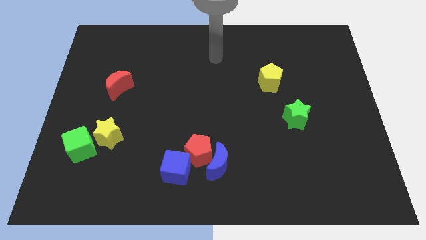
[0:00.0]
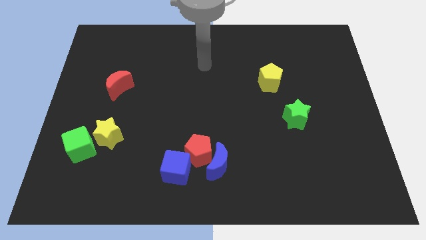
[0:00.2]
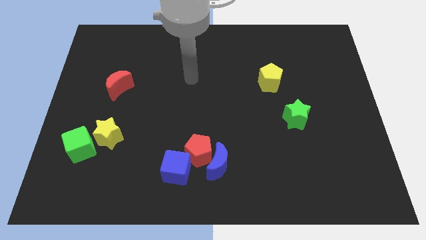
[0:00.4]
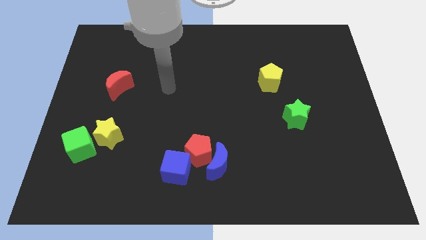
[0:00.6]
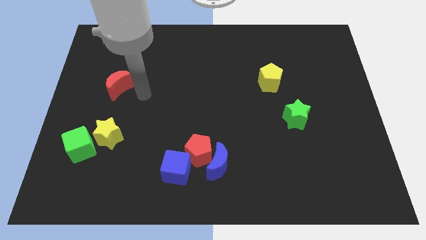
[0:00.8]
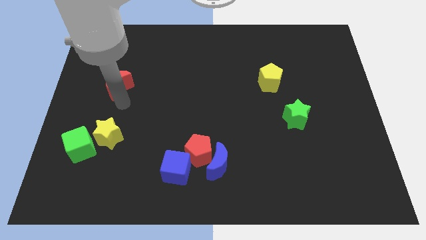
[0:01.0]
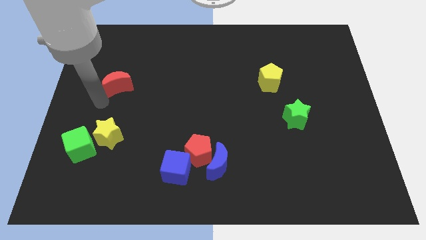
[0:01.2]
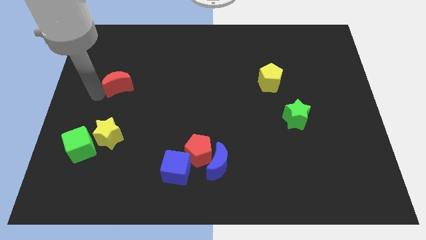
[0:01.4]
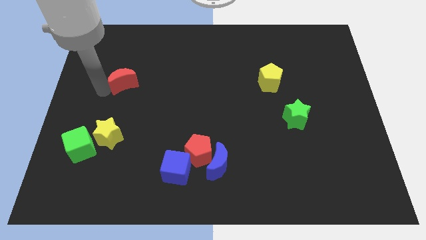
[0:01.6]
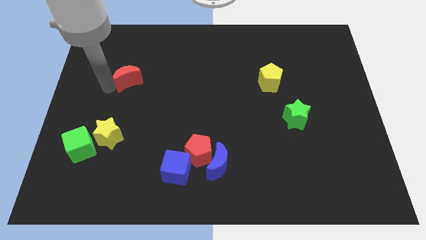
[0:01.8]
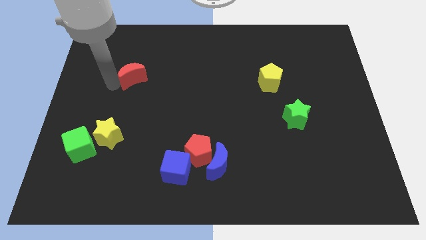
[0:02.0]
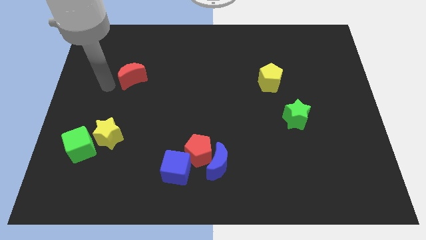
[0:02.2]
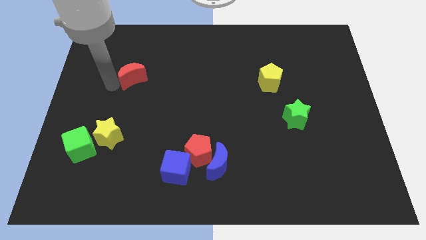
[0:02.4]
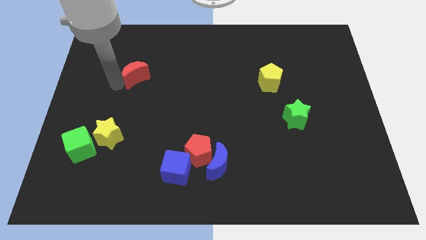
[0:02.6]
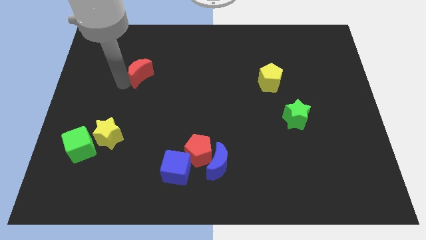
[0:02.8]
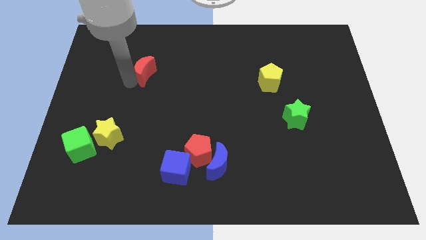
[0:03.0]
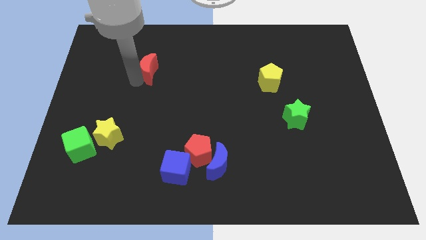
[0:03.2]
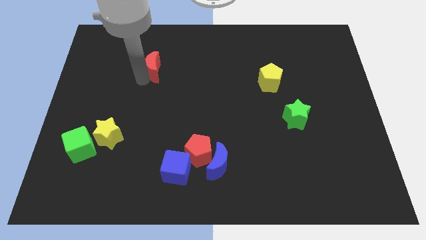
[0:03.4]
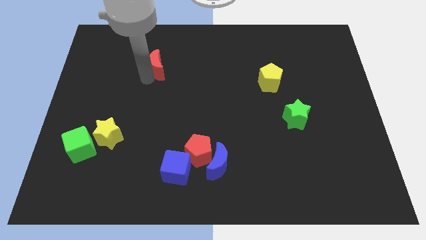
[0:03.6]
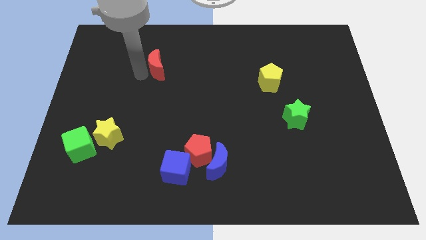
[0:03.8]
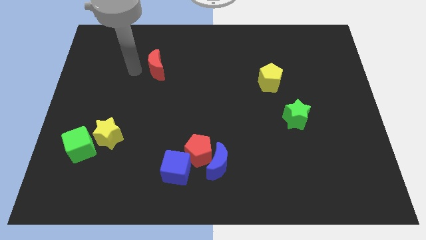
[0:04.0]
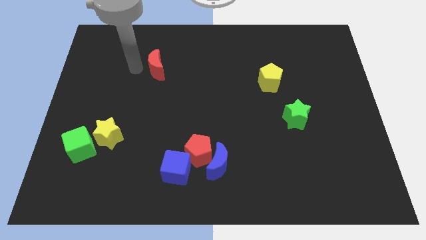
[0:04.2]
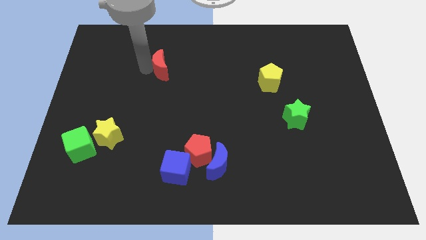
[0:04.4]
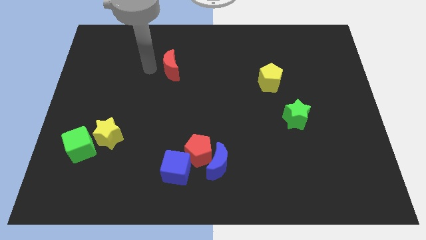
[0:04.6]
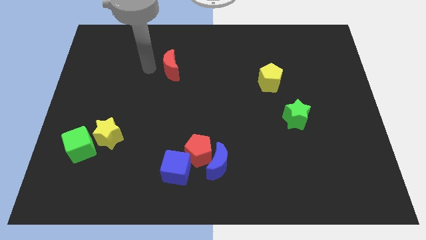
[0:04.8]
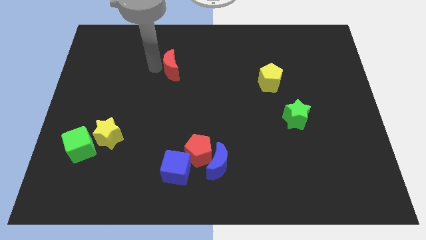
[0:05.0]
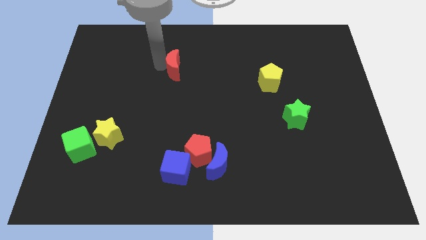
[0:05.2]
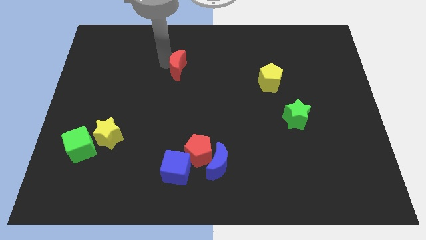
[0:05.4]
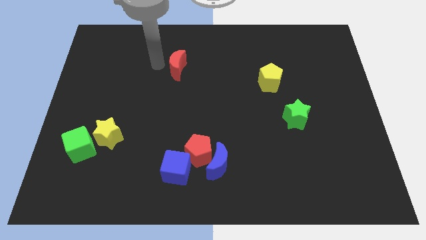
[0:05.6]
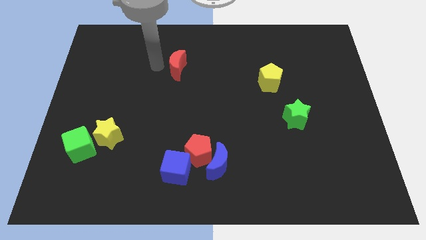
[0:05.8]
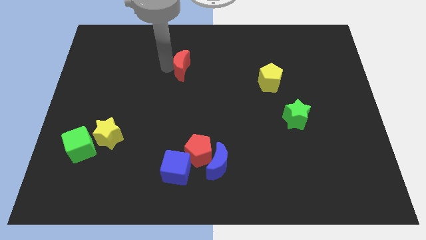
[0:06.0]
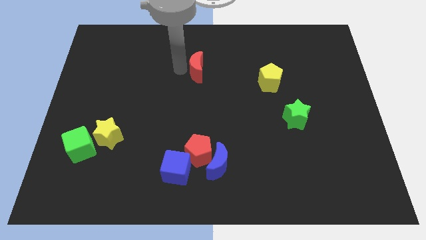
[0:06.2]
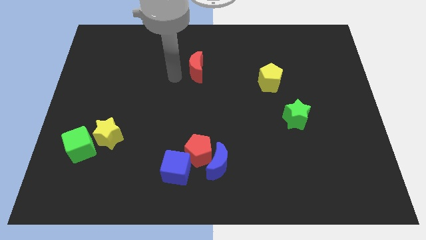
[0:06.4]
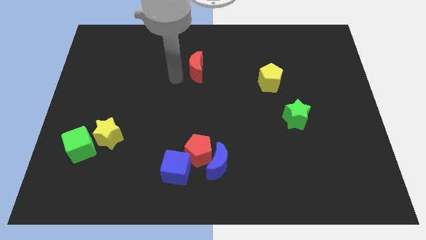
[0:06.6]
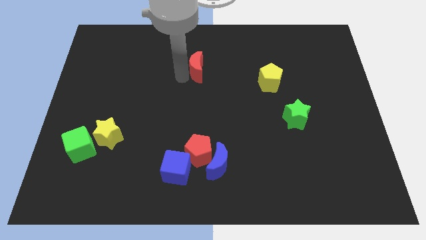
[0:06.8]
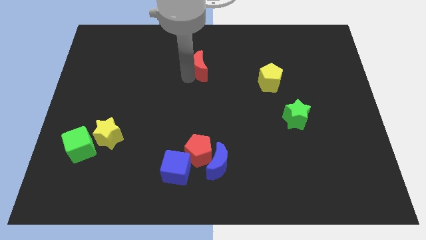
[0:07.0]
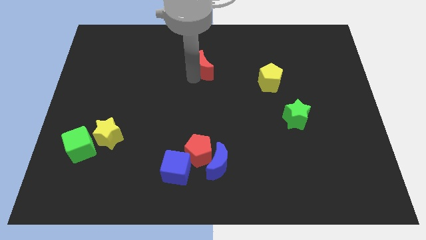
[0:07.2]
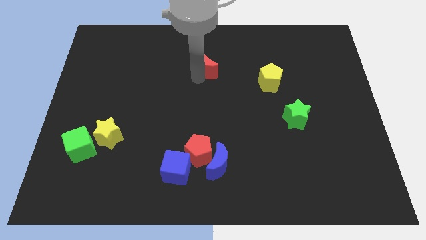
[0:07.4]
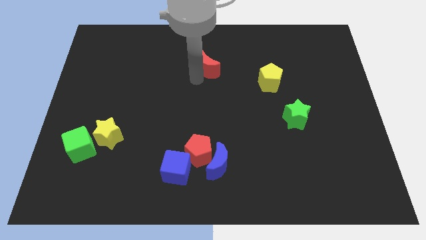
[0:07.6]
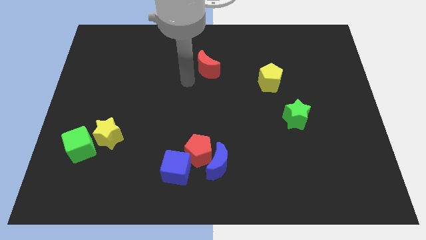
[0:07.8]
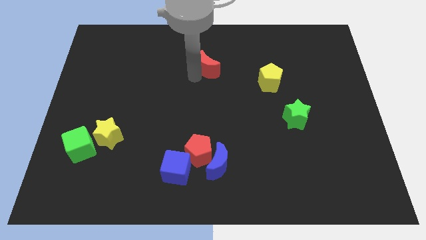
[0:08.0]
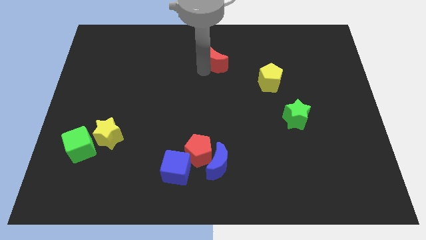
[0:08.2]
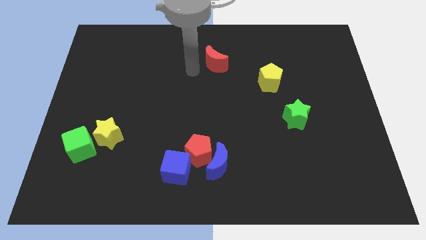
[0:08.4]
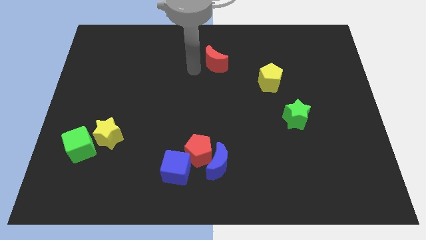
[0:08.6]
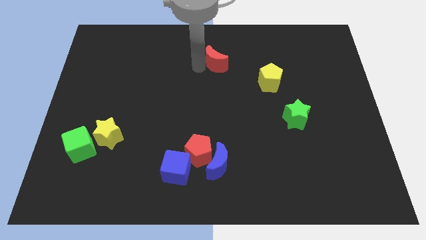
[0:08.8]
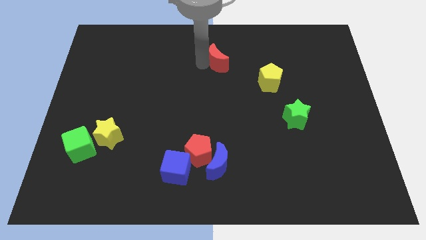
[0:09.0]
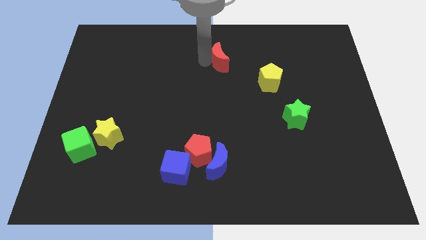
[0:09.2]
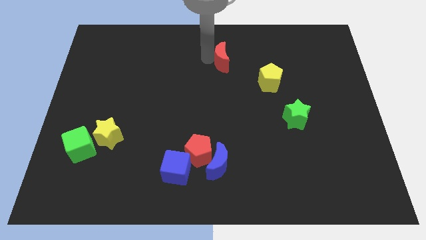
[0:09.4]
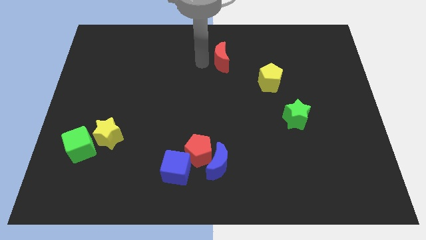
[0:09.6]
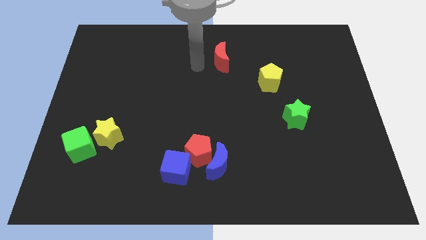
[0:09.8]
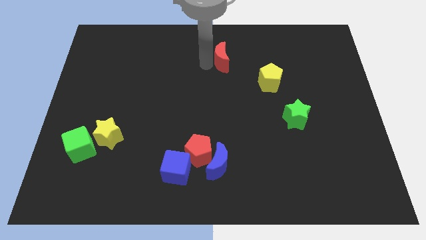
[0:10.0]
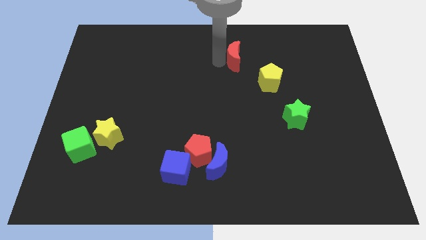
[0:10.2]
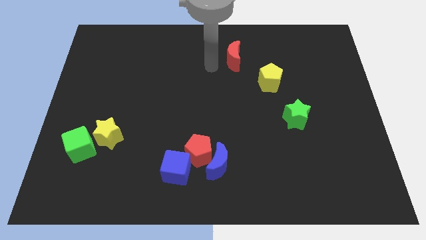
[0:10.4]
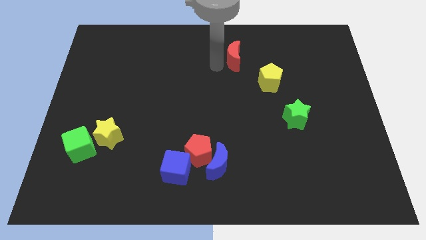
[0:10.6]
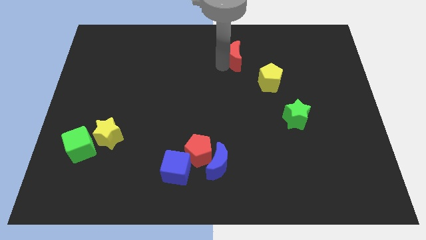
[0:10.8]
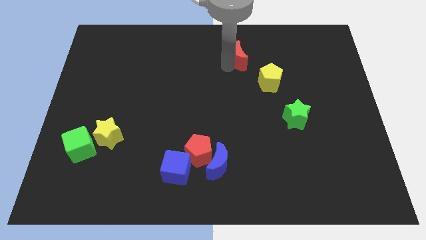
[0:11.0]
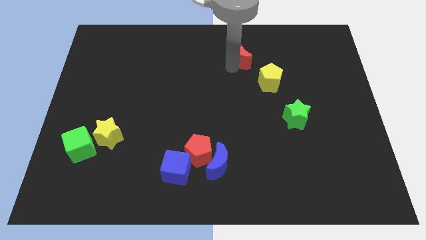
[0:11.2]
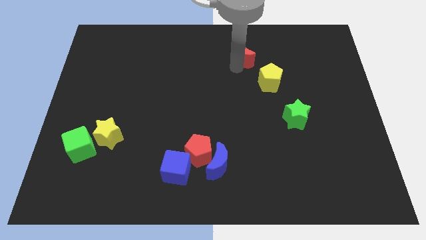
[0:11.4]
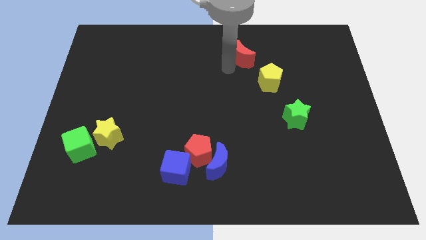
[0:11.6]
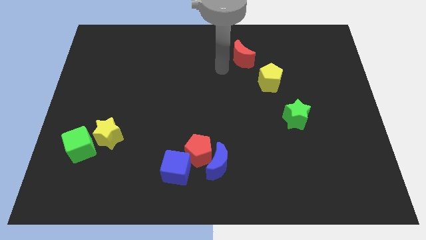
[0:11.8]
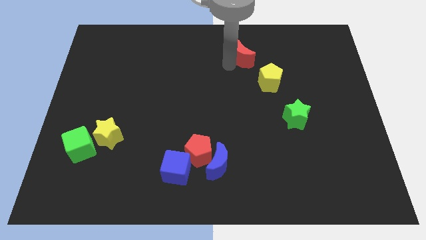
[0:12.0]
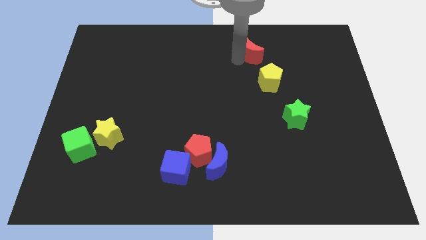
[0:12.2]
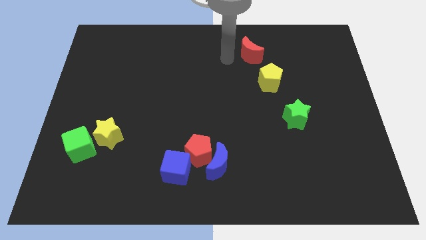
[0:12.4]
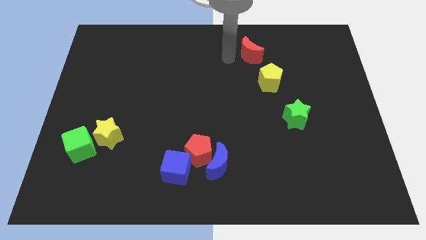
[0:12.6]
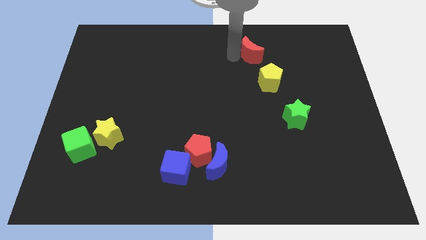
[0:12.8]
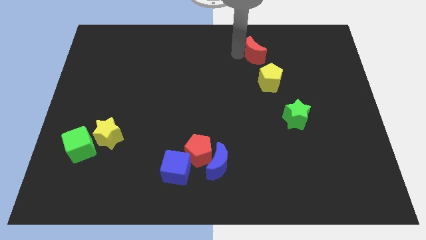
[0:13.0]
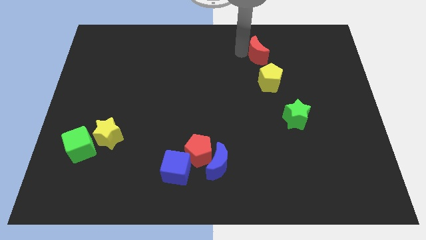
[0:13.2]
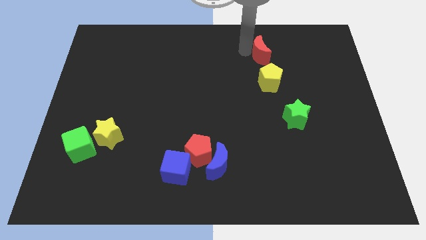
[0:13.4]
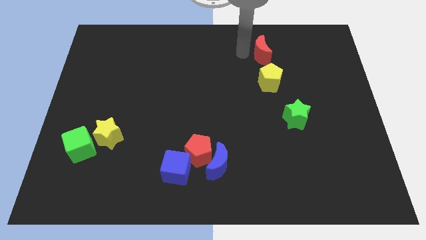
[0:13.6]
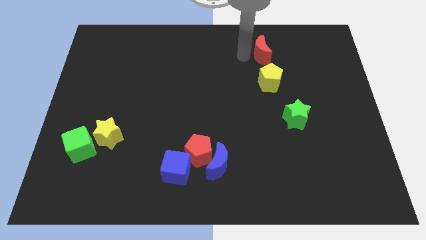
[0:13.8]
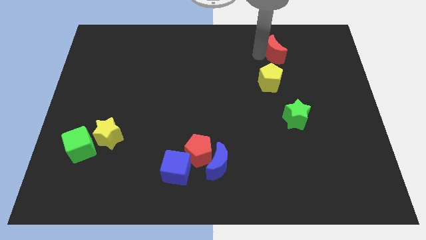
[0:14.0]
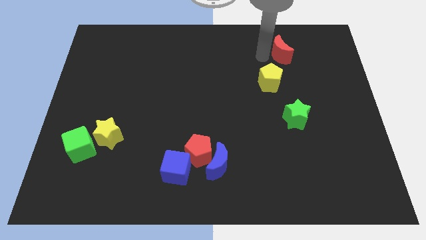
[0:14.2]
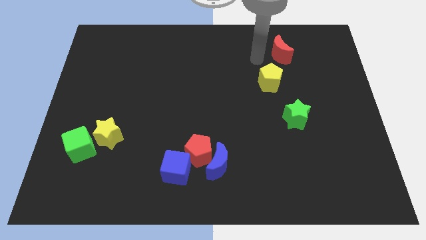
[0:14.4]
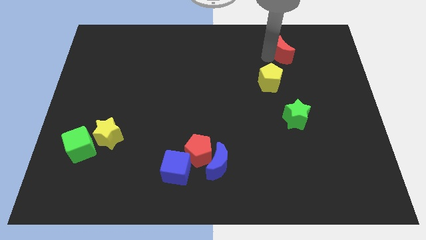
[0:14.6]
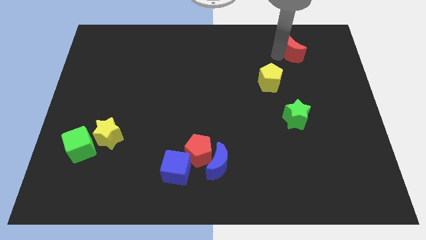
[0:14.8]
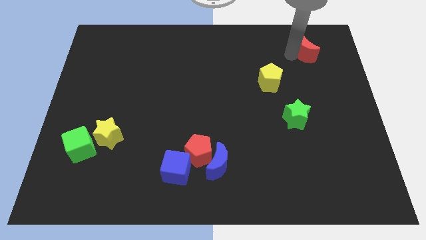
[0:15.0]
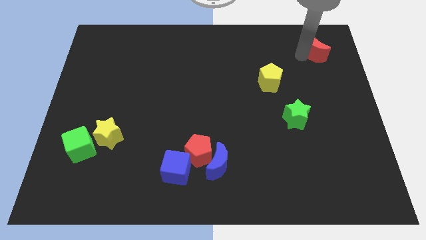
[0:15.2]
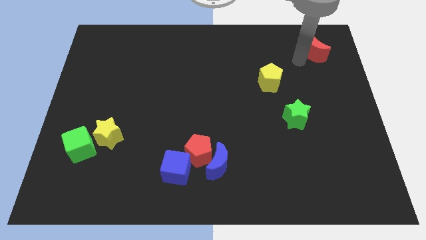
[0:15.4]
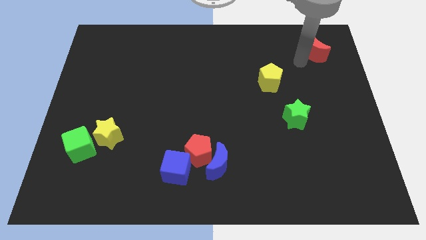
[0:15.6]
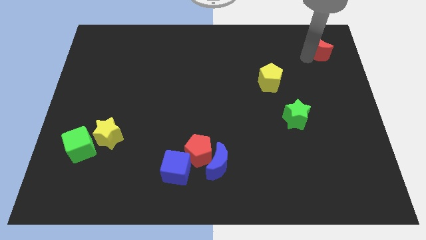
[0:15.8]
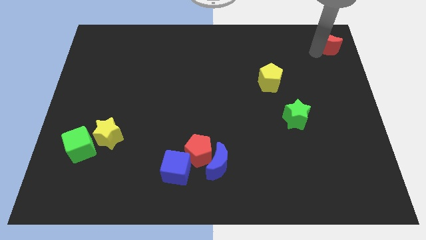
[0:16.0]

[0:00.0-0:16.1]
put the red moon to the top right
